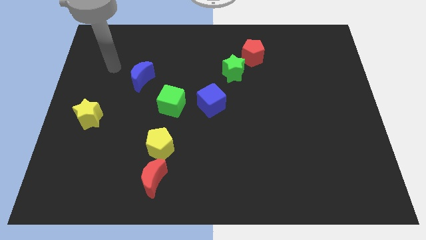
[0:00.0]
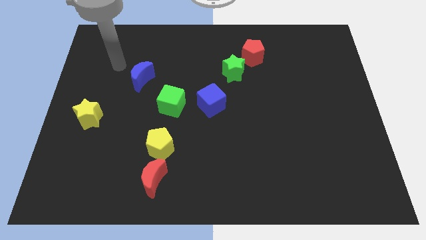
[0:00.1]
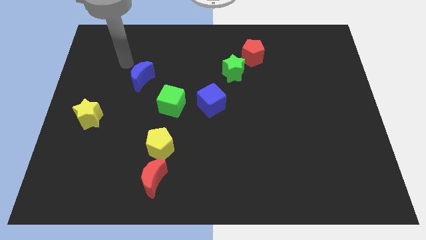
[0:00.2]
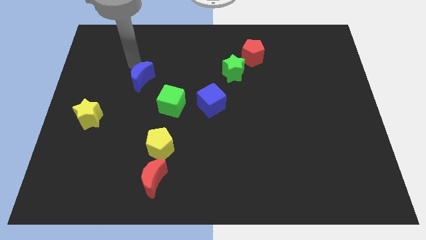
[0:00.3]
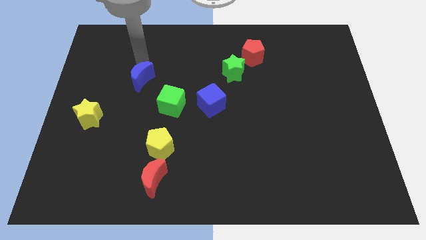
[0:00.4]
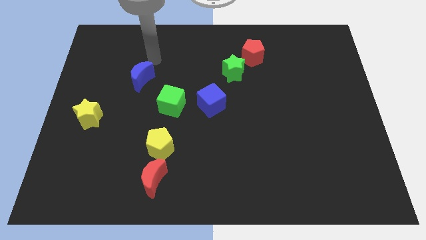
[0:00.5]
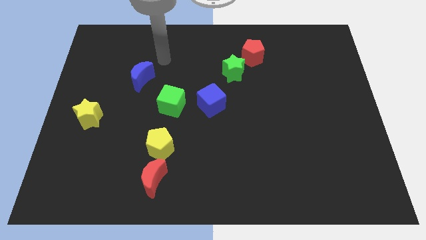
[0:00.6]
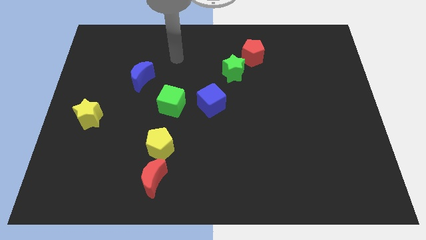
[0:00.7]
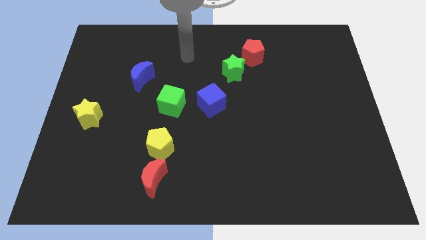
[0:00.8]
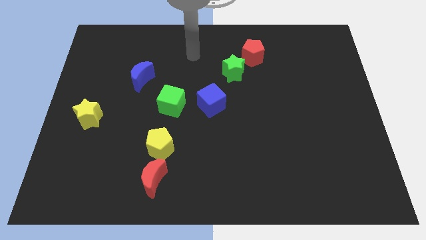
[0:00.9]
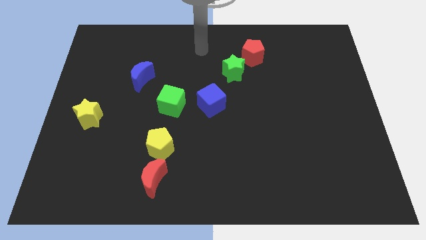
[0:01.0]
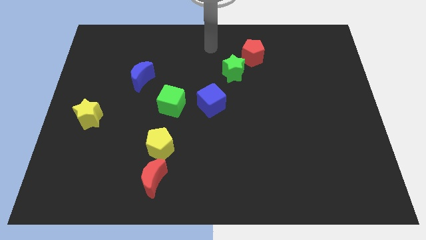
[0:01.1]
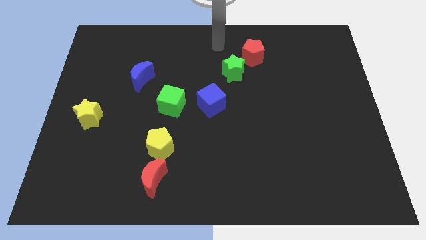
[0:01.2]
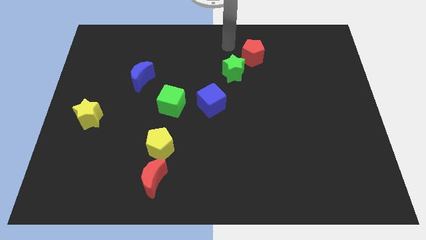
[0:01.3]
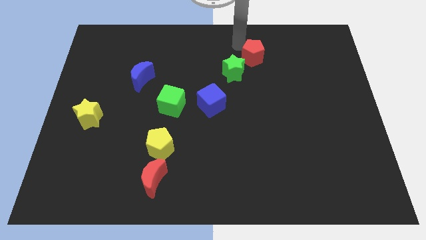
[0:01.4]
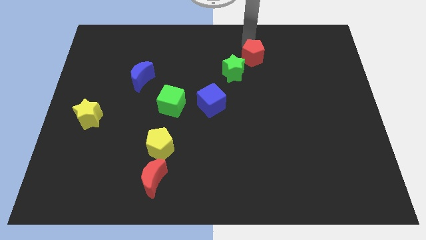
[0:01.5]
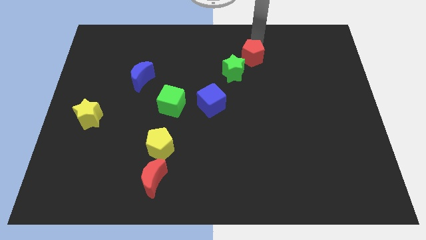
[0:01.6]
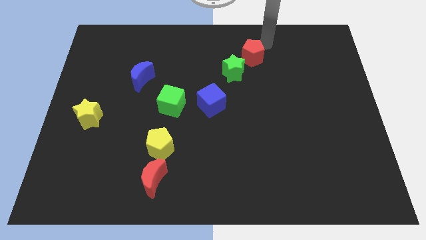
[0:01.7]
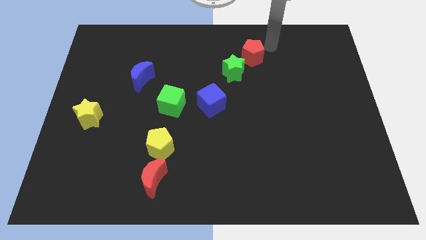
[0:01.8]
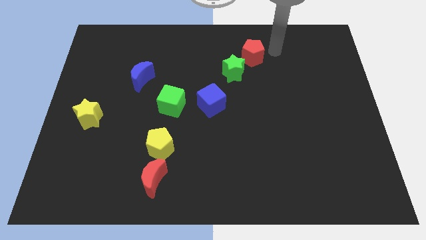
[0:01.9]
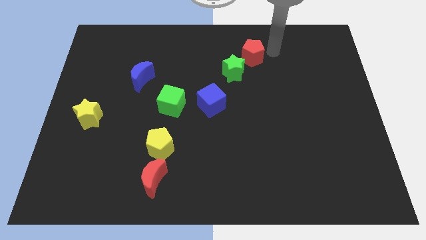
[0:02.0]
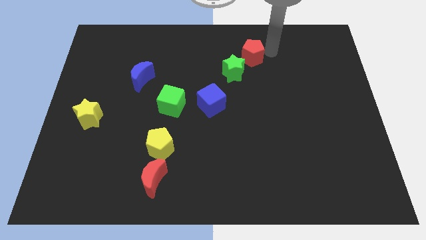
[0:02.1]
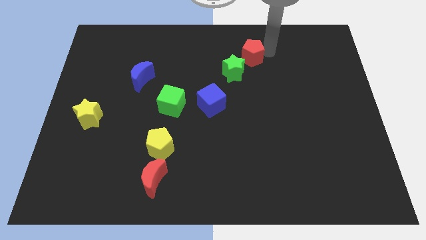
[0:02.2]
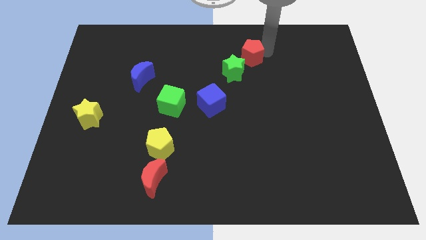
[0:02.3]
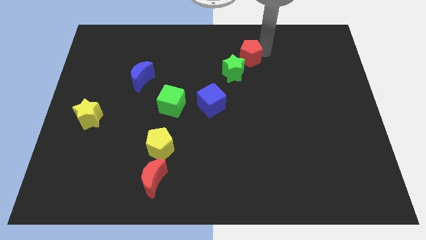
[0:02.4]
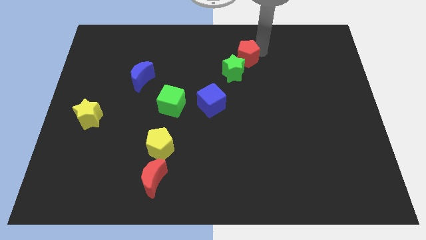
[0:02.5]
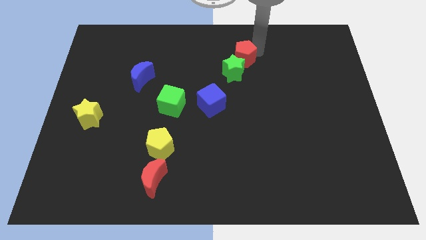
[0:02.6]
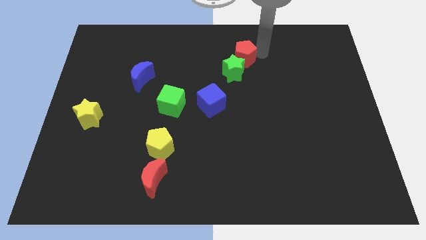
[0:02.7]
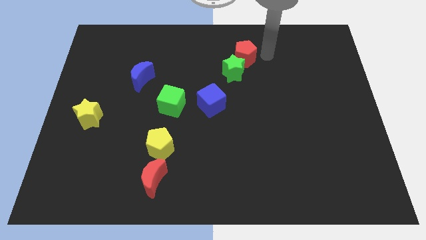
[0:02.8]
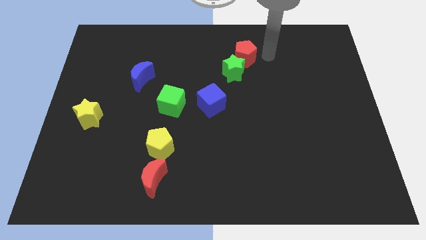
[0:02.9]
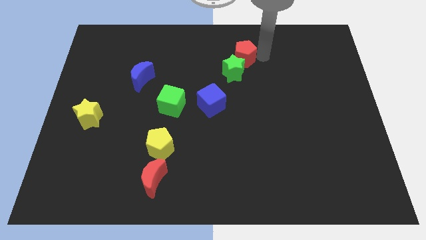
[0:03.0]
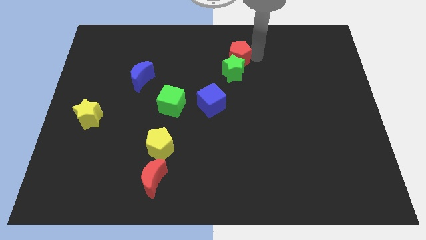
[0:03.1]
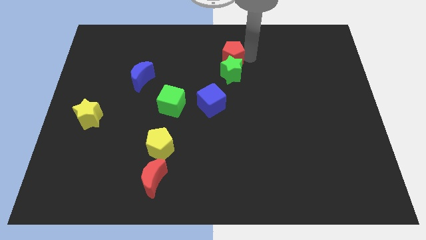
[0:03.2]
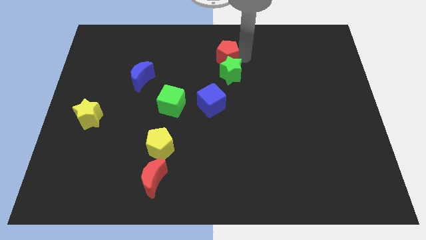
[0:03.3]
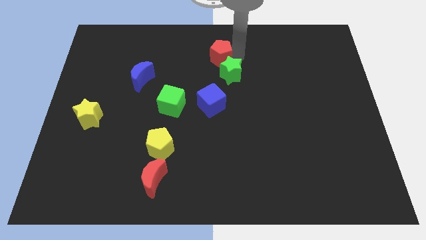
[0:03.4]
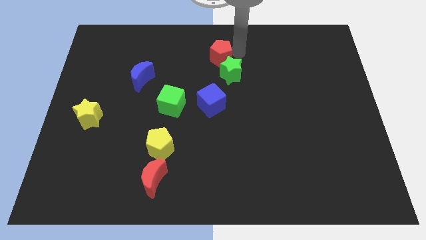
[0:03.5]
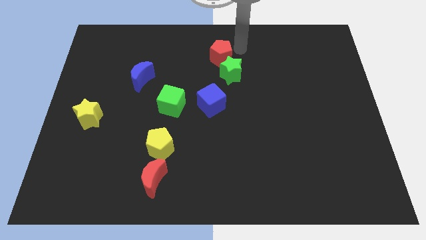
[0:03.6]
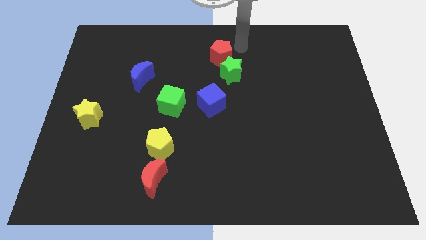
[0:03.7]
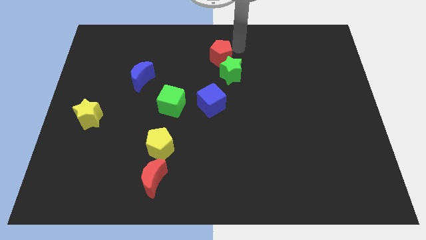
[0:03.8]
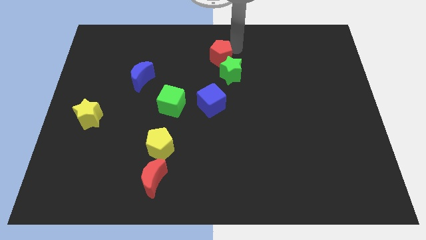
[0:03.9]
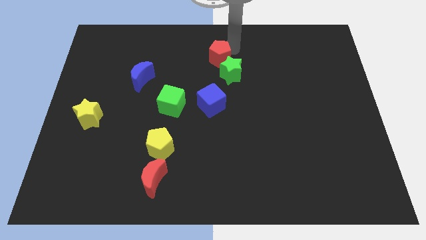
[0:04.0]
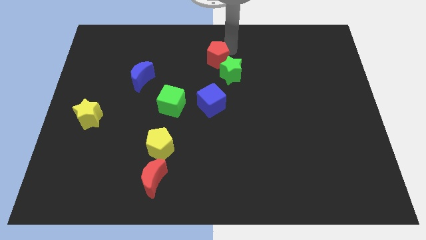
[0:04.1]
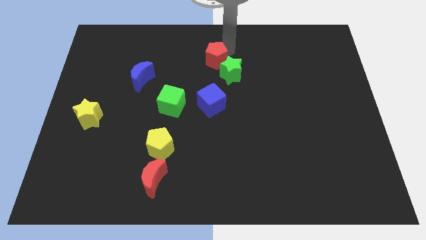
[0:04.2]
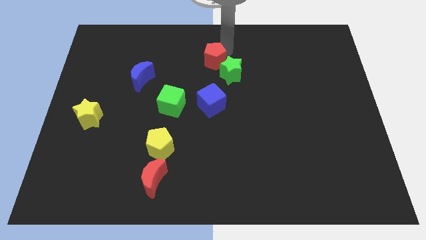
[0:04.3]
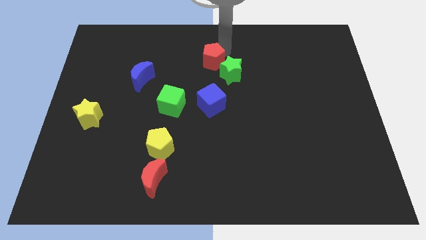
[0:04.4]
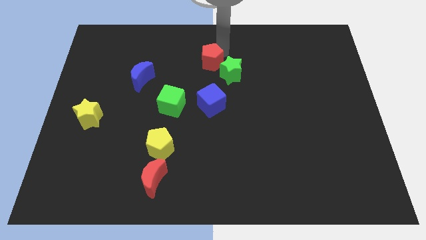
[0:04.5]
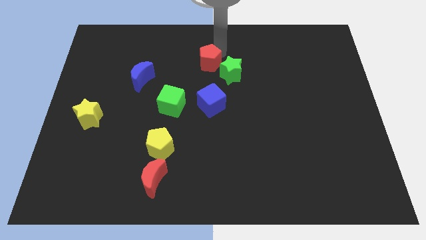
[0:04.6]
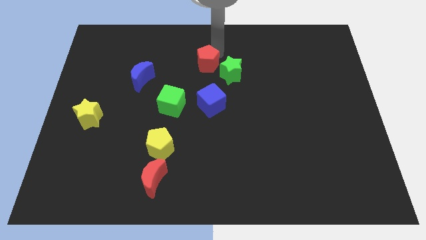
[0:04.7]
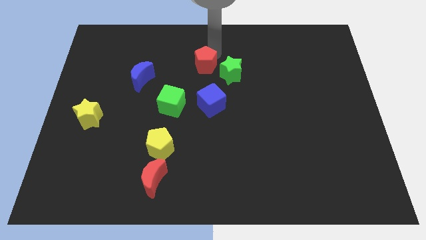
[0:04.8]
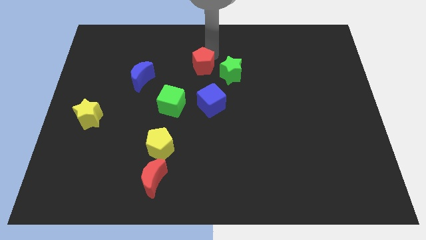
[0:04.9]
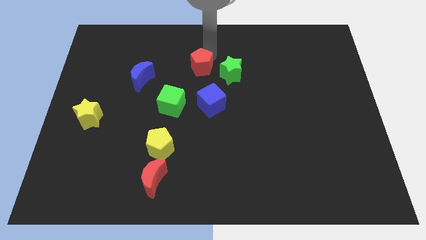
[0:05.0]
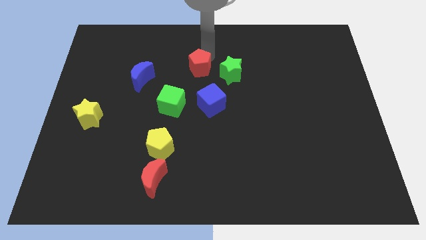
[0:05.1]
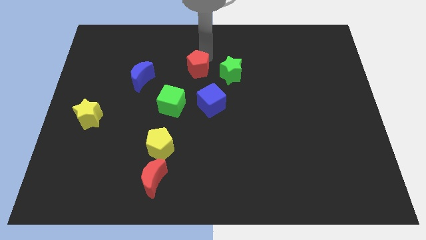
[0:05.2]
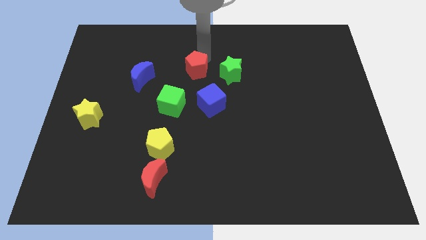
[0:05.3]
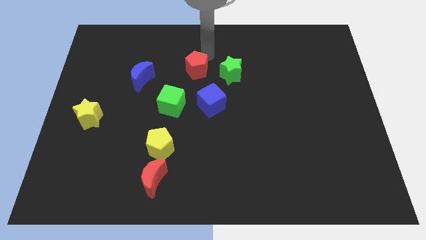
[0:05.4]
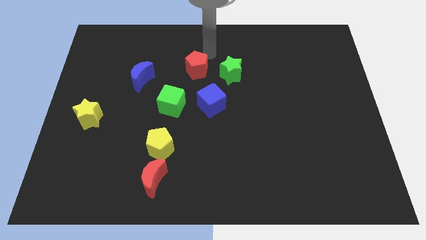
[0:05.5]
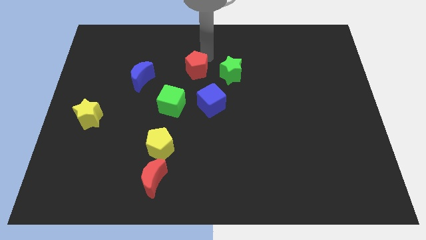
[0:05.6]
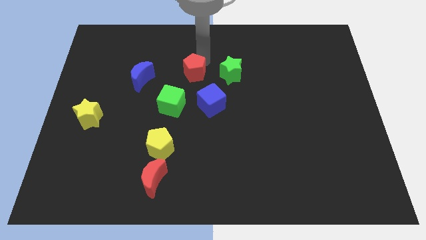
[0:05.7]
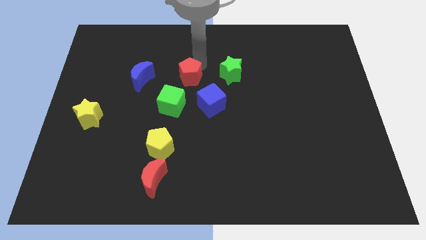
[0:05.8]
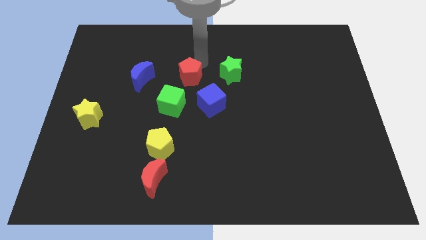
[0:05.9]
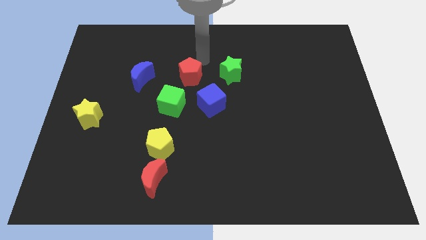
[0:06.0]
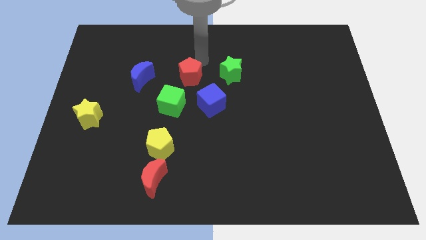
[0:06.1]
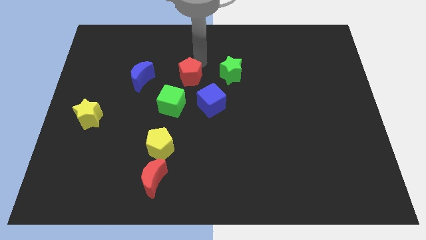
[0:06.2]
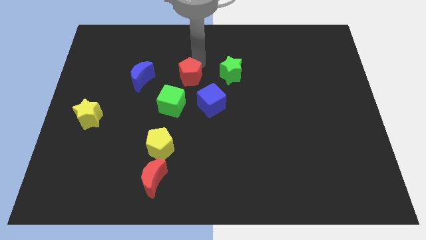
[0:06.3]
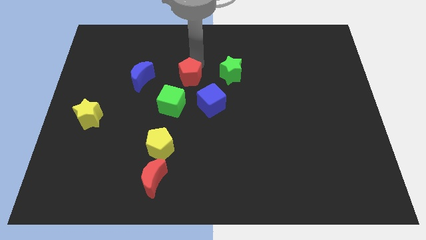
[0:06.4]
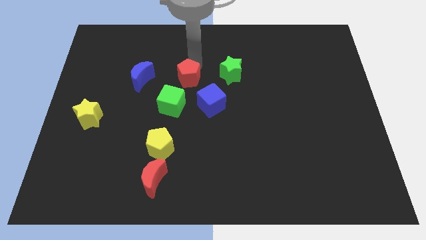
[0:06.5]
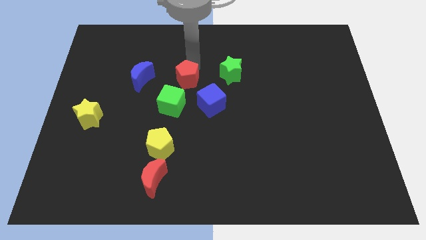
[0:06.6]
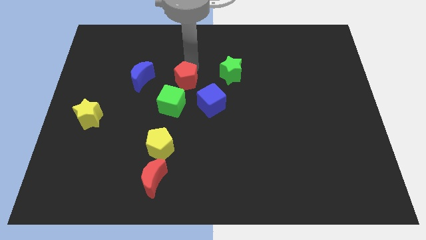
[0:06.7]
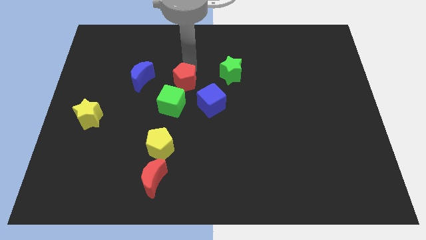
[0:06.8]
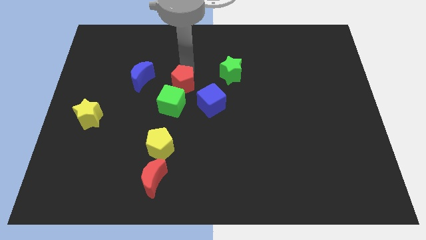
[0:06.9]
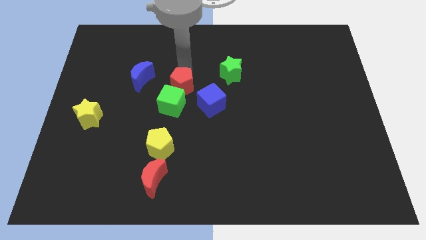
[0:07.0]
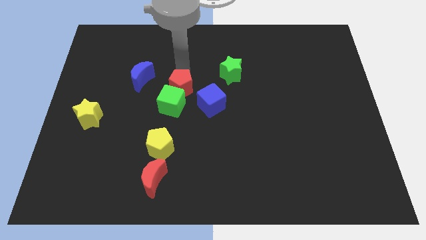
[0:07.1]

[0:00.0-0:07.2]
push the red pentagon next to the green cube

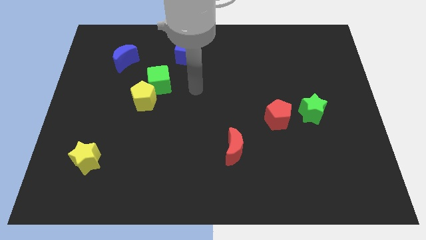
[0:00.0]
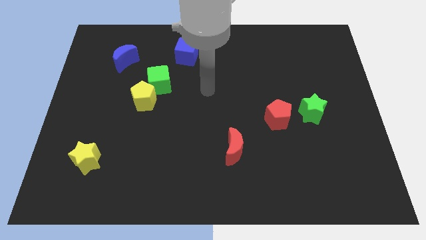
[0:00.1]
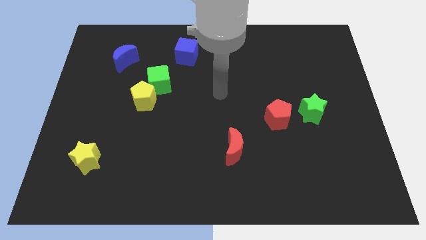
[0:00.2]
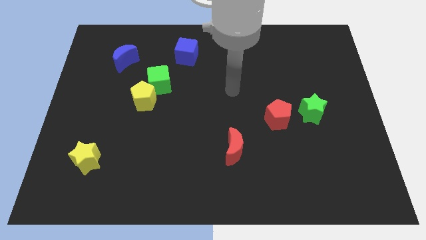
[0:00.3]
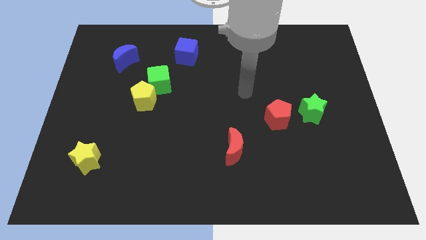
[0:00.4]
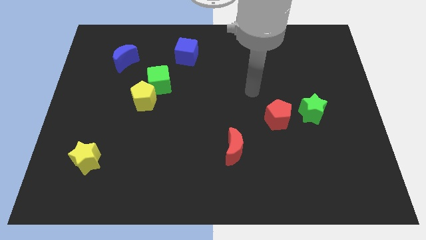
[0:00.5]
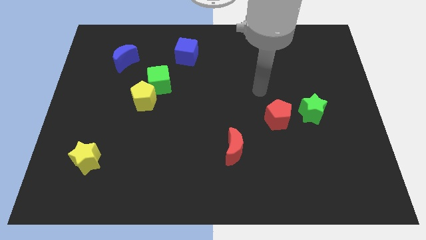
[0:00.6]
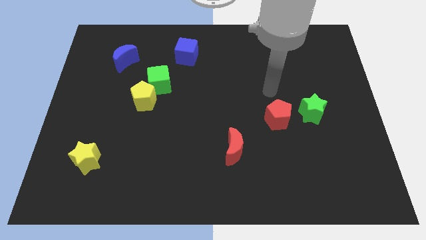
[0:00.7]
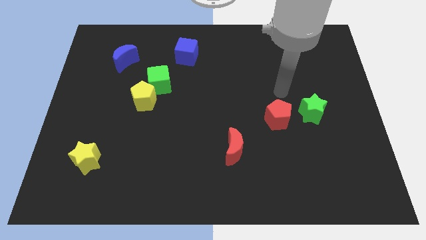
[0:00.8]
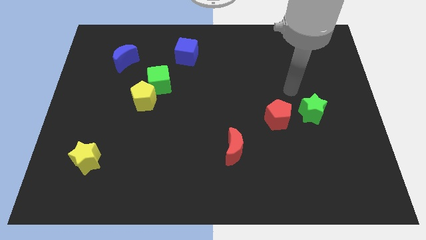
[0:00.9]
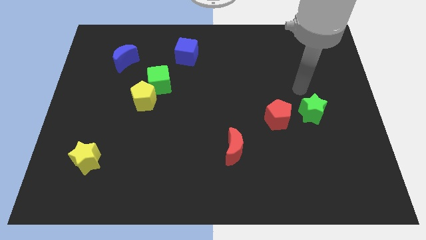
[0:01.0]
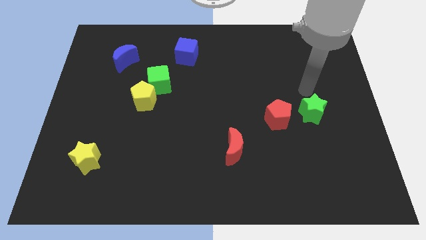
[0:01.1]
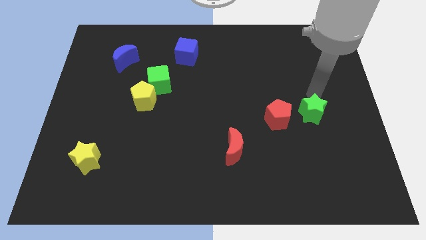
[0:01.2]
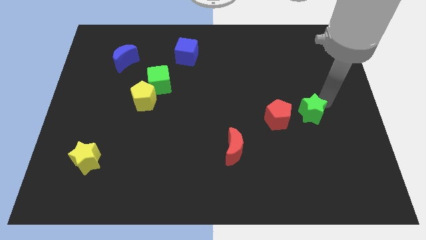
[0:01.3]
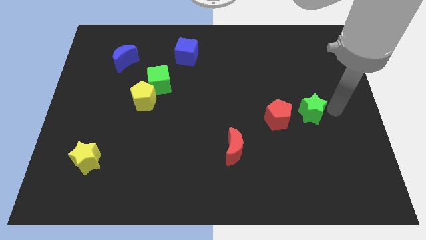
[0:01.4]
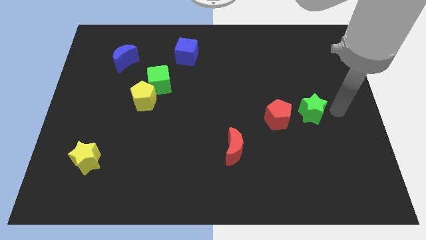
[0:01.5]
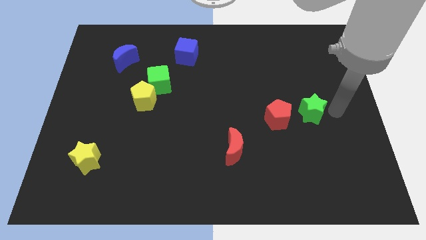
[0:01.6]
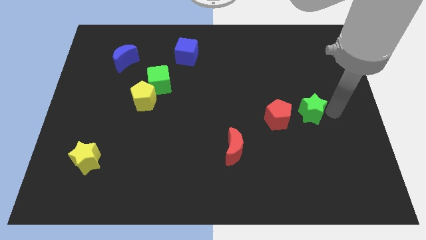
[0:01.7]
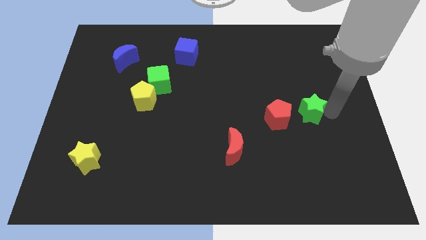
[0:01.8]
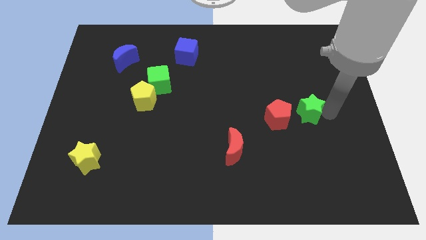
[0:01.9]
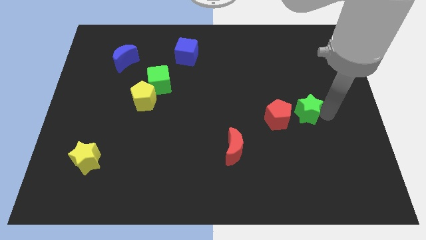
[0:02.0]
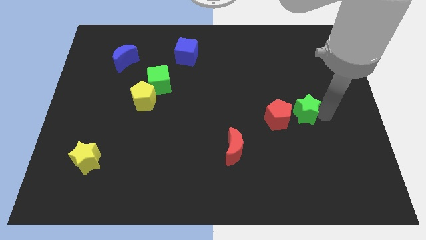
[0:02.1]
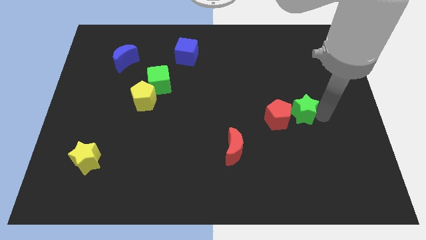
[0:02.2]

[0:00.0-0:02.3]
move the green star to the red pentagon
